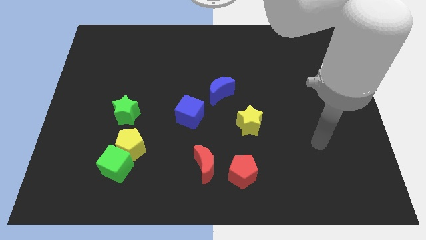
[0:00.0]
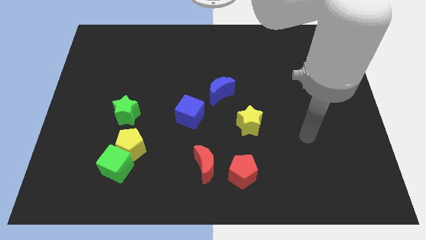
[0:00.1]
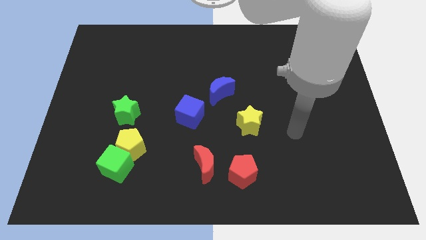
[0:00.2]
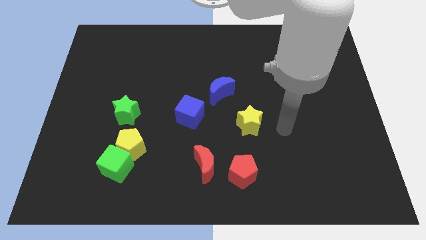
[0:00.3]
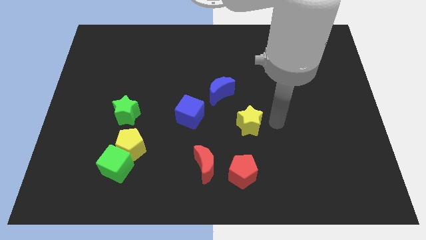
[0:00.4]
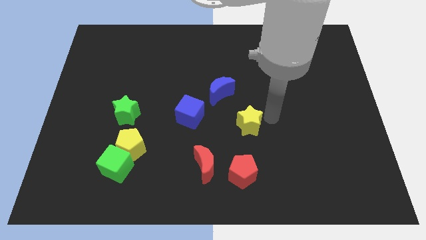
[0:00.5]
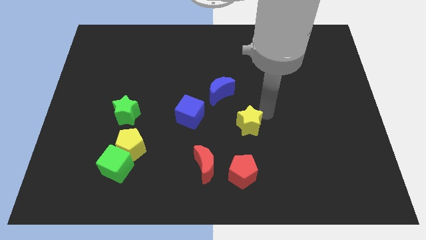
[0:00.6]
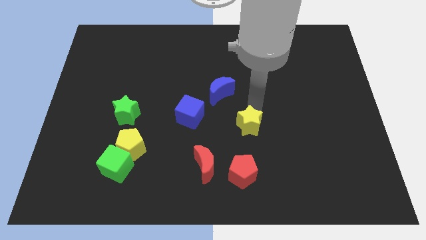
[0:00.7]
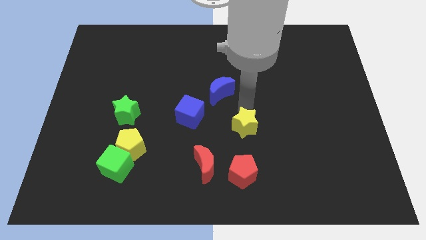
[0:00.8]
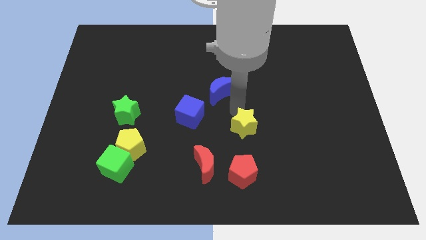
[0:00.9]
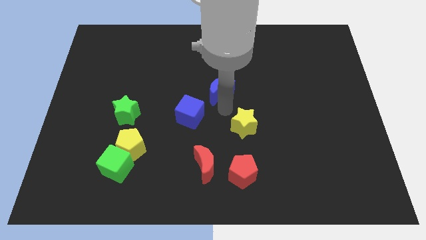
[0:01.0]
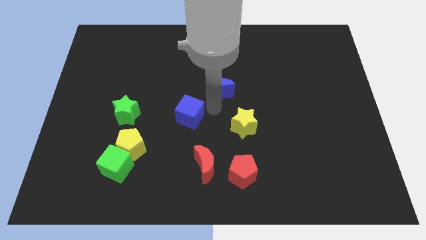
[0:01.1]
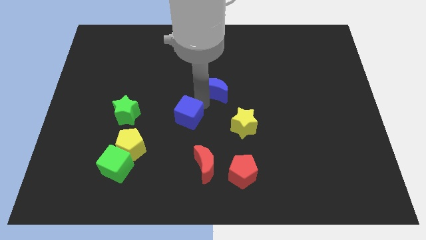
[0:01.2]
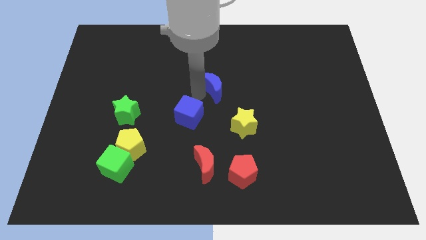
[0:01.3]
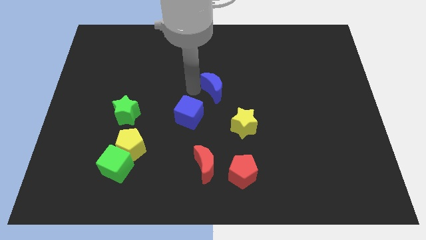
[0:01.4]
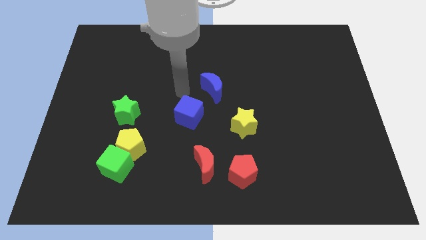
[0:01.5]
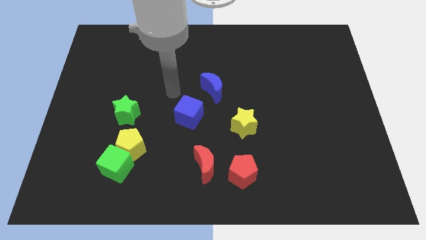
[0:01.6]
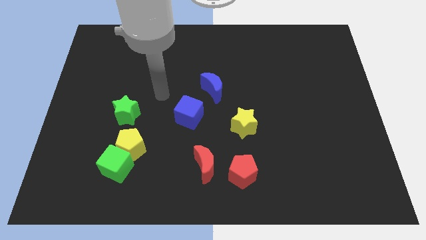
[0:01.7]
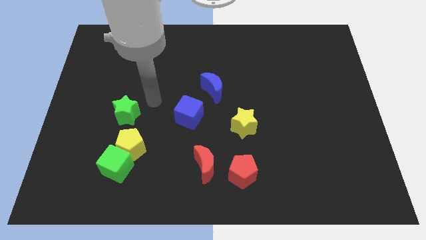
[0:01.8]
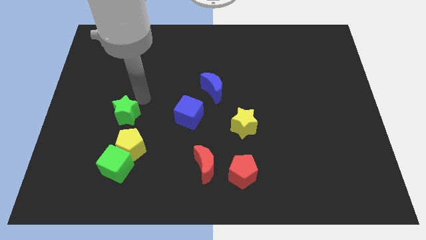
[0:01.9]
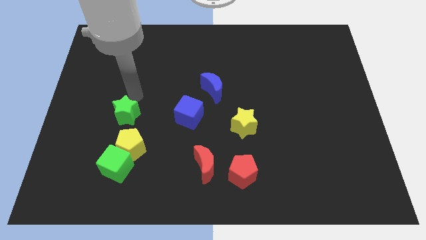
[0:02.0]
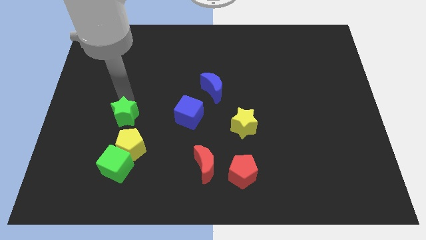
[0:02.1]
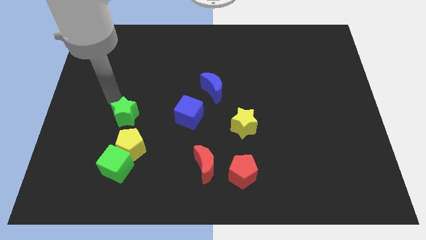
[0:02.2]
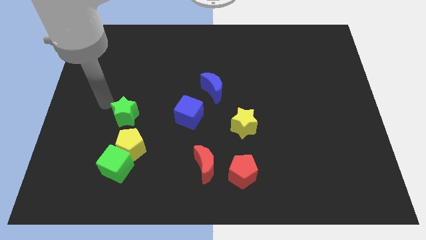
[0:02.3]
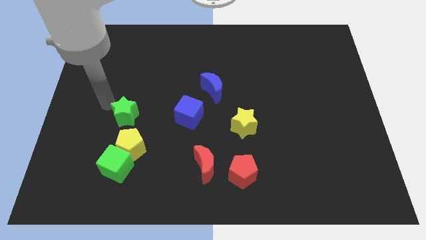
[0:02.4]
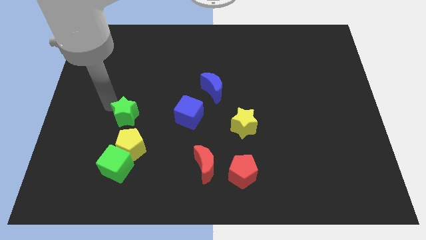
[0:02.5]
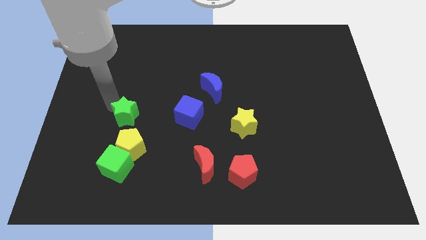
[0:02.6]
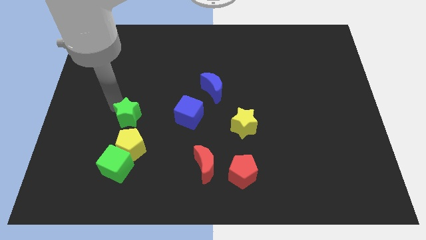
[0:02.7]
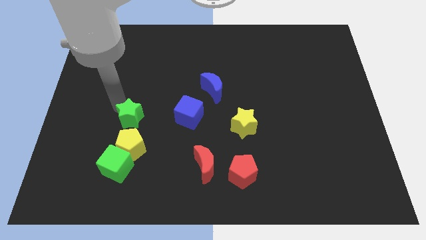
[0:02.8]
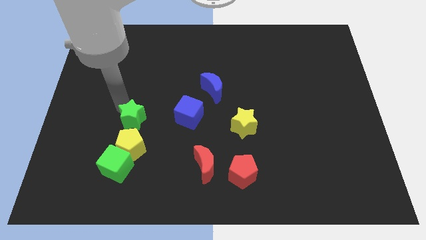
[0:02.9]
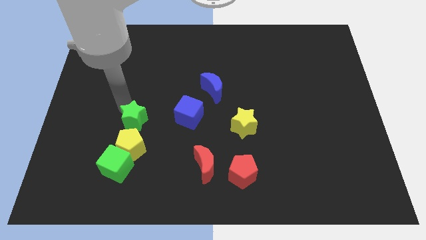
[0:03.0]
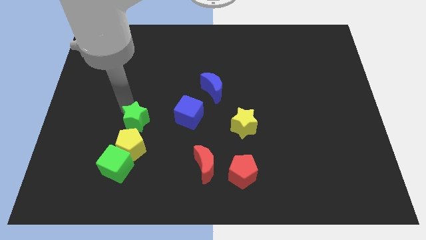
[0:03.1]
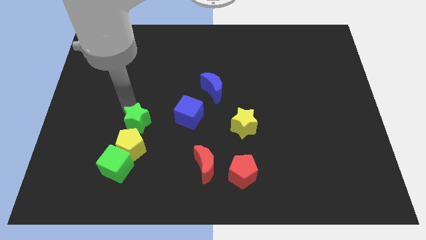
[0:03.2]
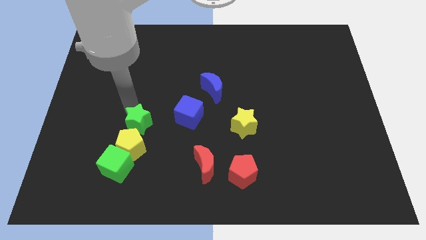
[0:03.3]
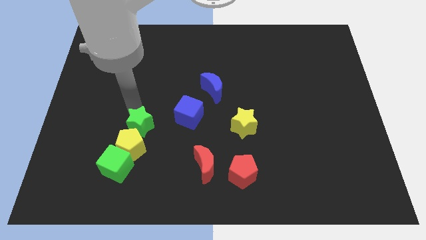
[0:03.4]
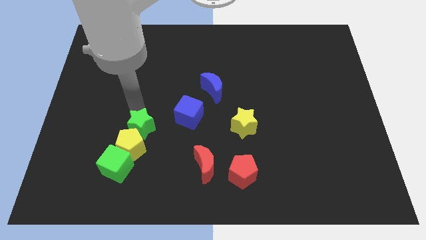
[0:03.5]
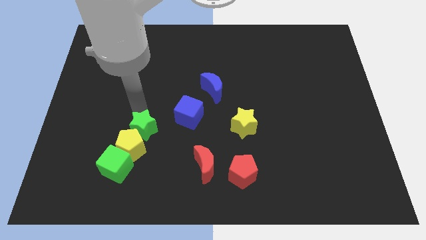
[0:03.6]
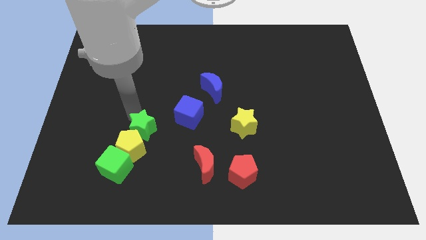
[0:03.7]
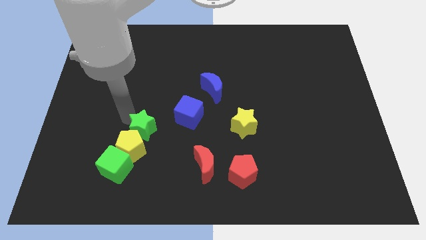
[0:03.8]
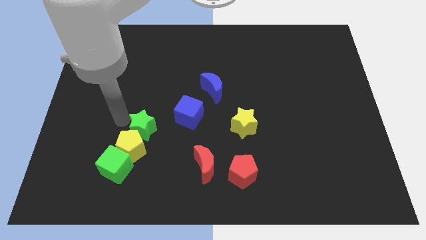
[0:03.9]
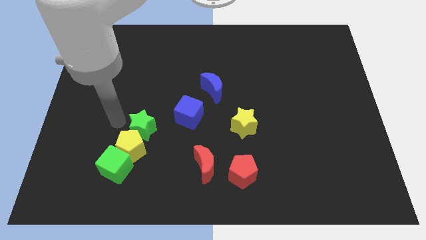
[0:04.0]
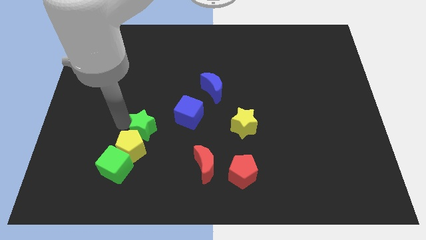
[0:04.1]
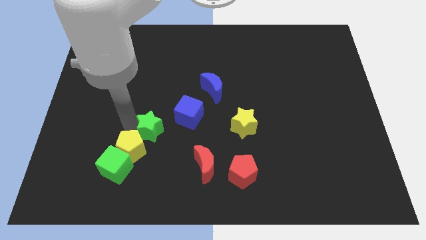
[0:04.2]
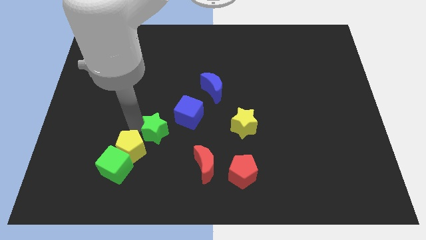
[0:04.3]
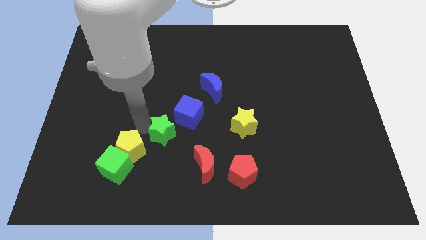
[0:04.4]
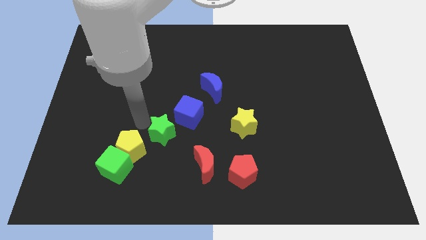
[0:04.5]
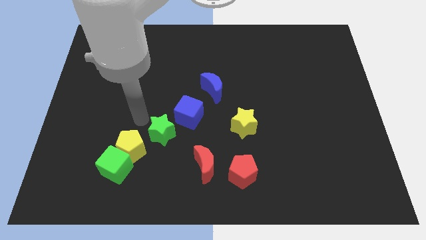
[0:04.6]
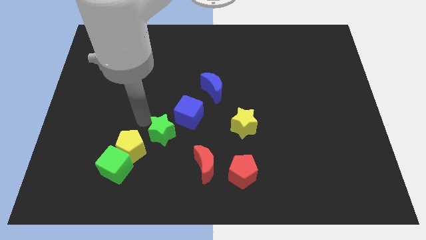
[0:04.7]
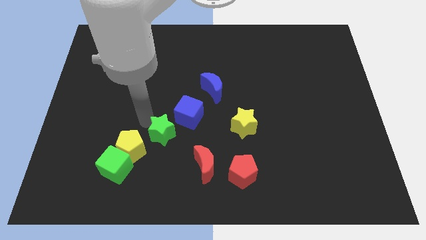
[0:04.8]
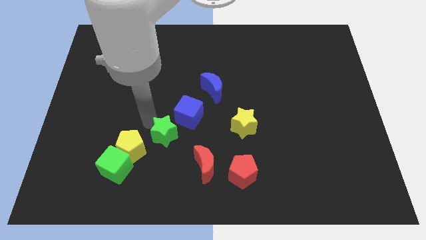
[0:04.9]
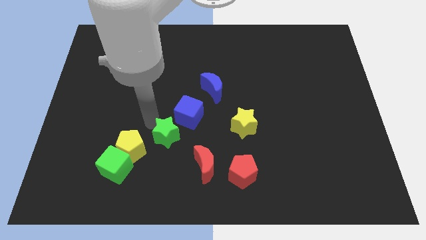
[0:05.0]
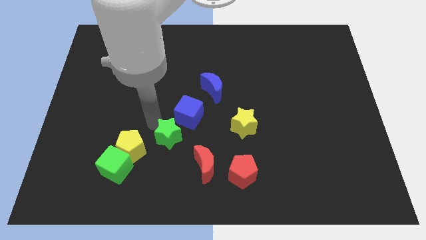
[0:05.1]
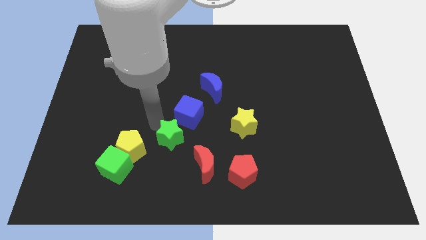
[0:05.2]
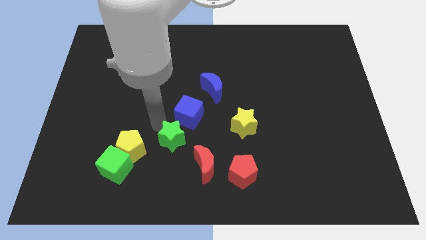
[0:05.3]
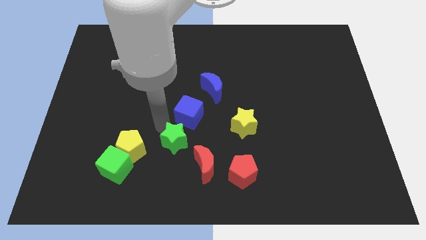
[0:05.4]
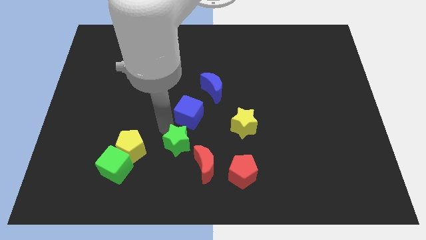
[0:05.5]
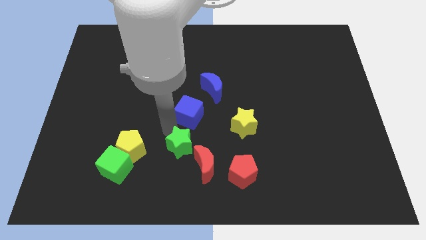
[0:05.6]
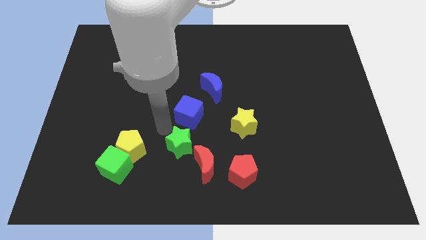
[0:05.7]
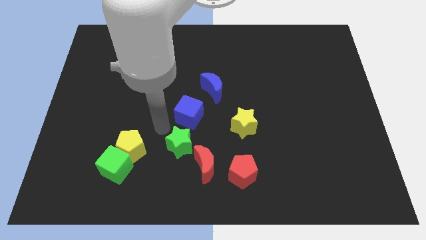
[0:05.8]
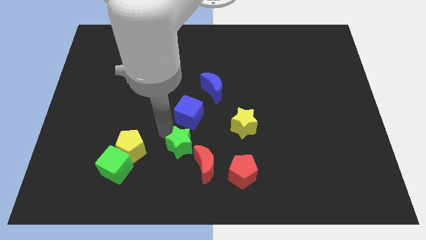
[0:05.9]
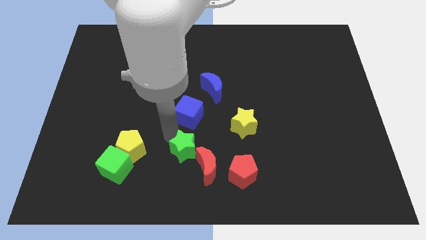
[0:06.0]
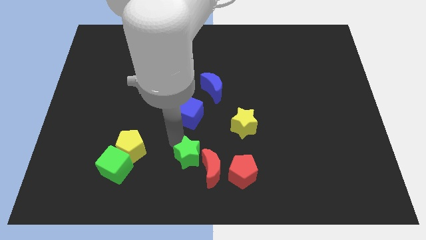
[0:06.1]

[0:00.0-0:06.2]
move the green star close to the red moon

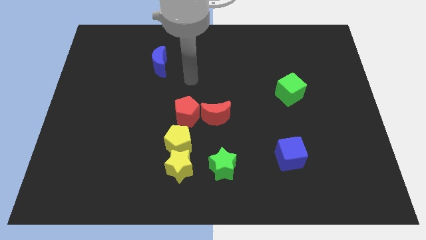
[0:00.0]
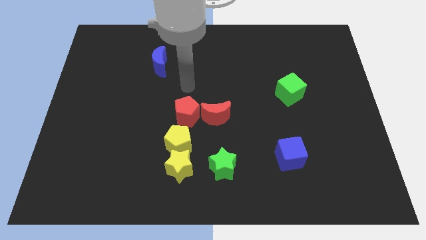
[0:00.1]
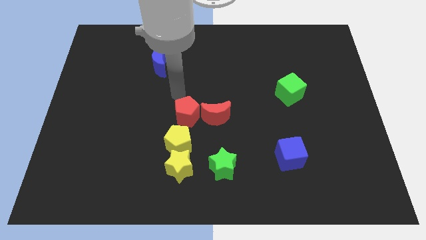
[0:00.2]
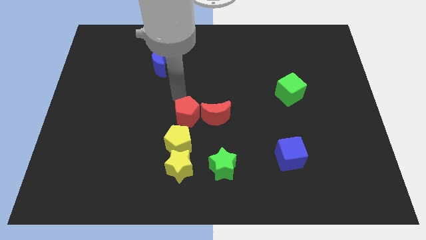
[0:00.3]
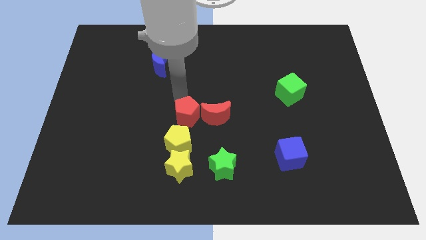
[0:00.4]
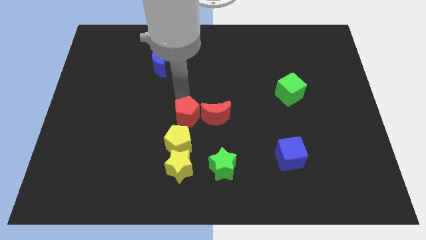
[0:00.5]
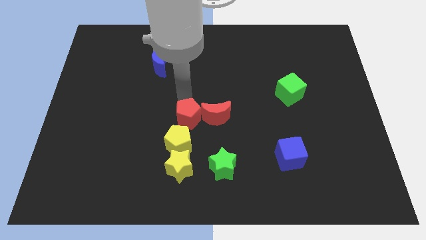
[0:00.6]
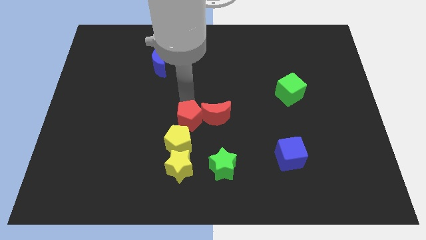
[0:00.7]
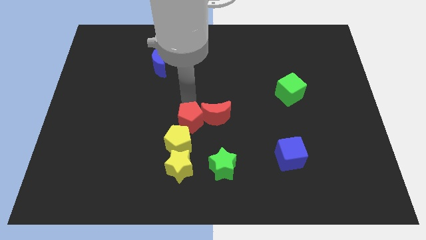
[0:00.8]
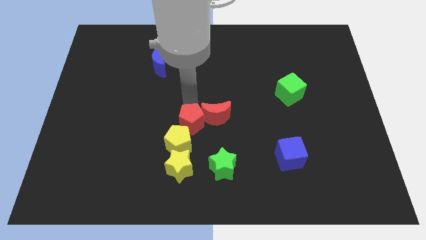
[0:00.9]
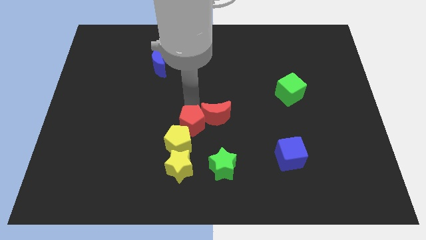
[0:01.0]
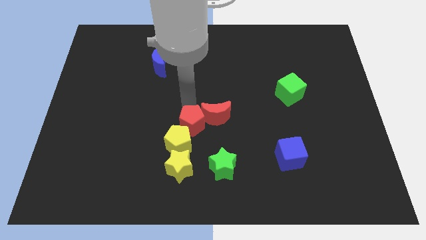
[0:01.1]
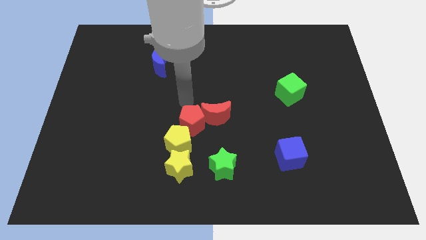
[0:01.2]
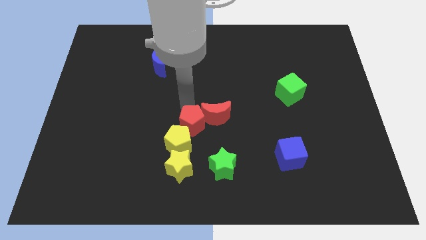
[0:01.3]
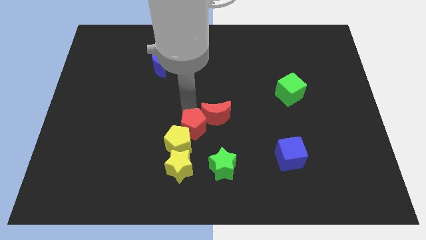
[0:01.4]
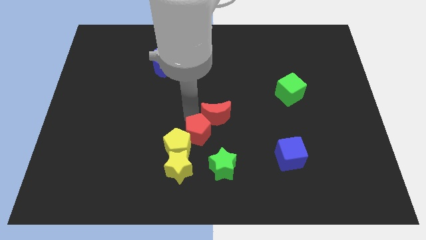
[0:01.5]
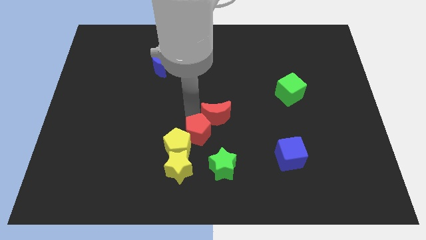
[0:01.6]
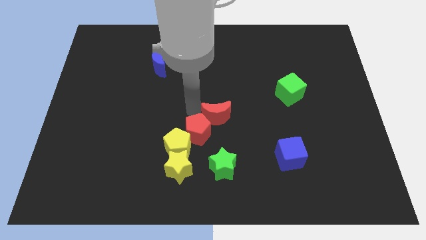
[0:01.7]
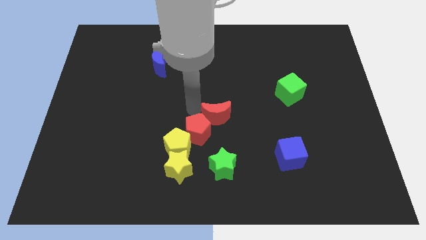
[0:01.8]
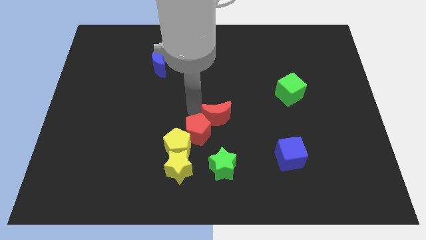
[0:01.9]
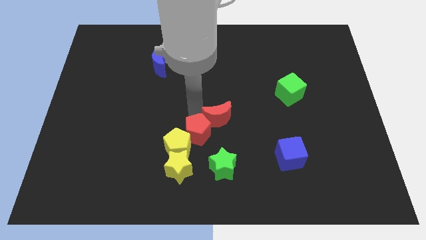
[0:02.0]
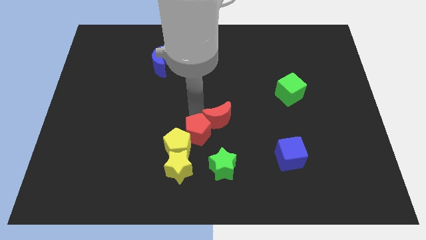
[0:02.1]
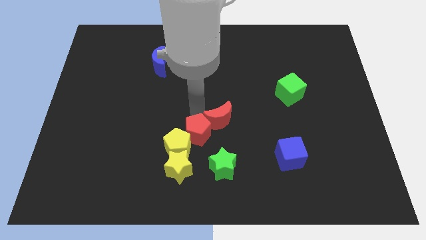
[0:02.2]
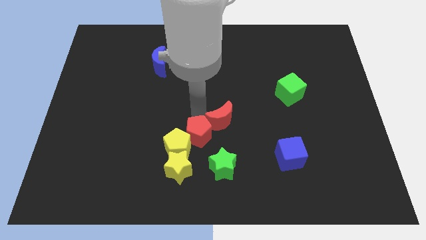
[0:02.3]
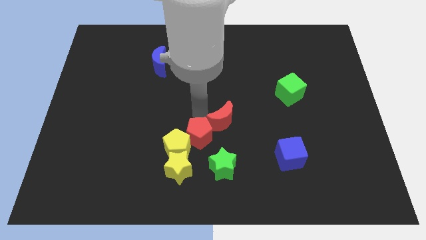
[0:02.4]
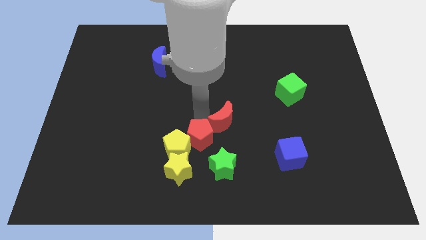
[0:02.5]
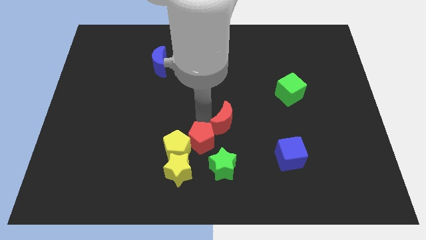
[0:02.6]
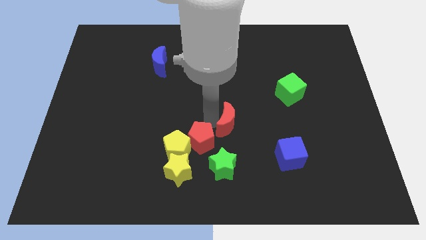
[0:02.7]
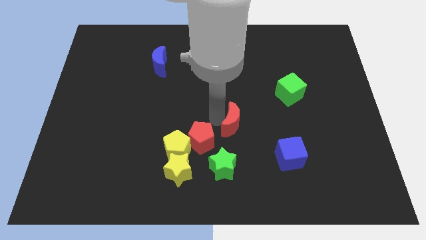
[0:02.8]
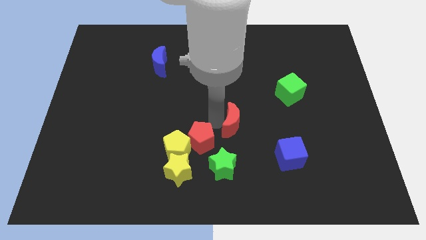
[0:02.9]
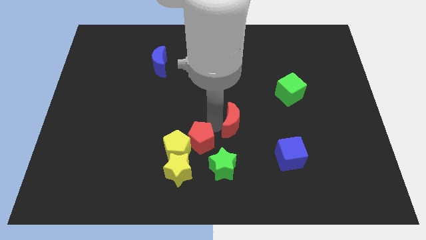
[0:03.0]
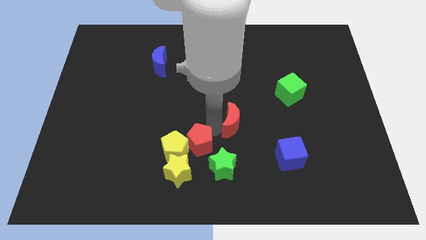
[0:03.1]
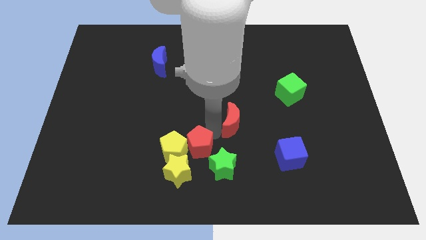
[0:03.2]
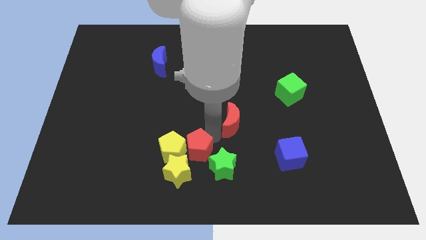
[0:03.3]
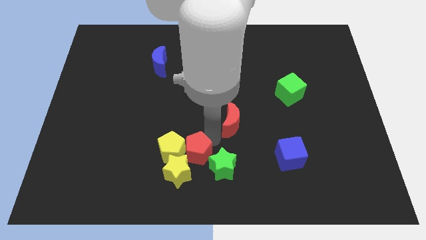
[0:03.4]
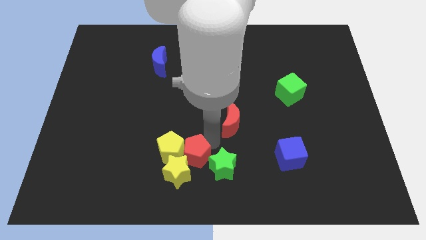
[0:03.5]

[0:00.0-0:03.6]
slide the red pentagon close to the yellow star
